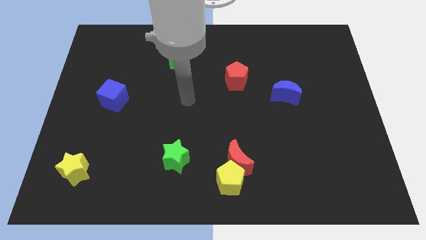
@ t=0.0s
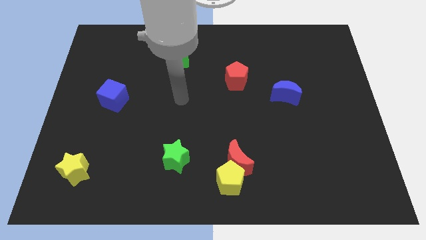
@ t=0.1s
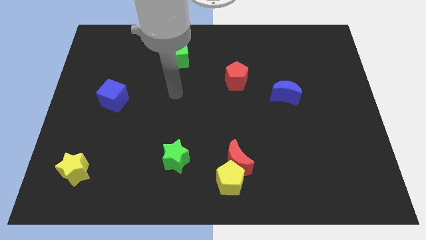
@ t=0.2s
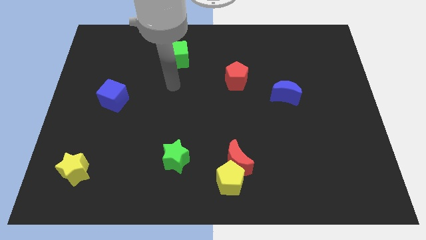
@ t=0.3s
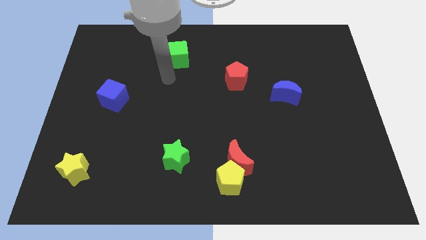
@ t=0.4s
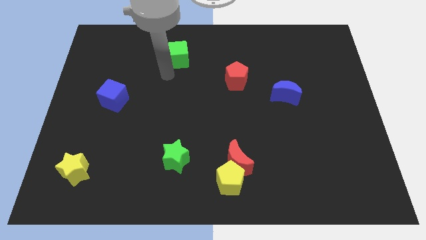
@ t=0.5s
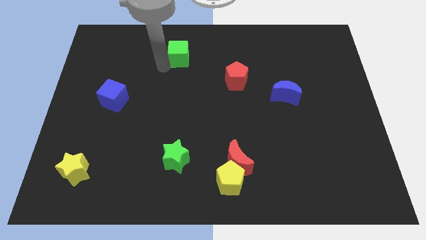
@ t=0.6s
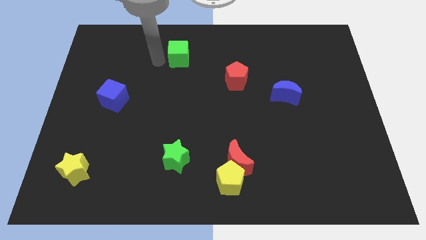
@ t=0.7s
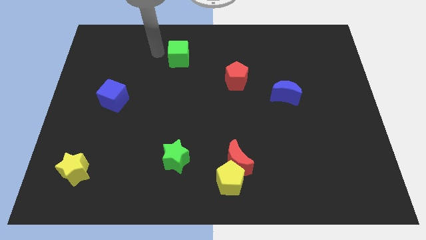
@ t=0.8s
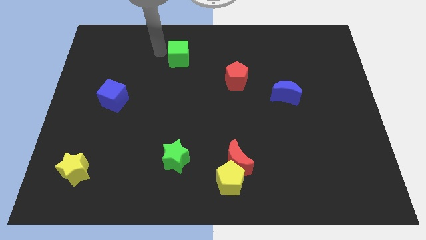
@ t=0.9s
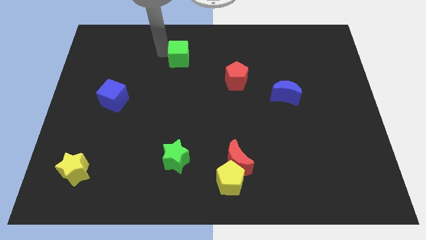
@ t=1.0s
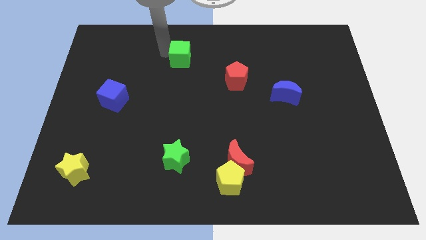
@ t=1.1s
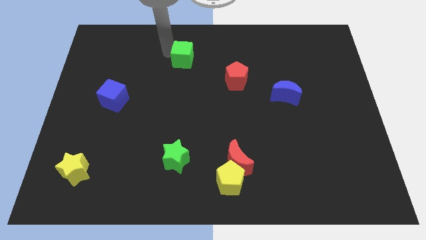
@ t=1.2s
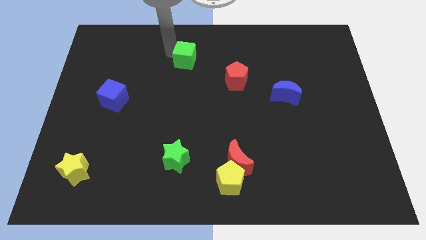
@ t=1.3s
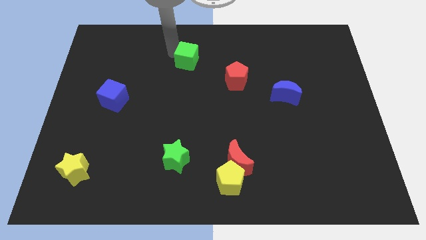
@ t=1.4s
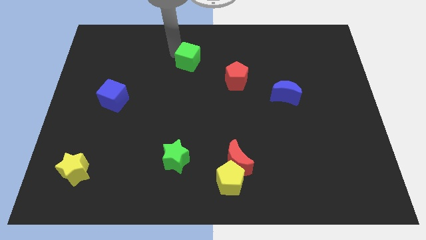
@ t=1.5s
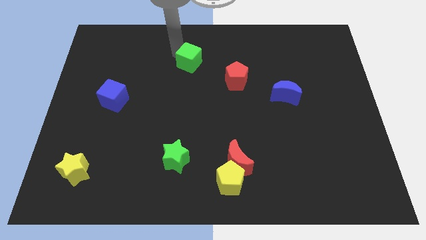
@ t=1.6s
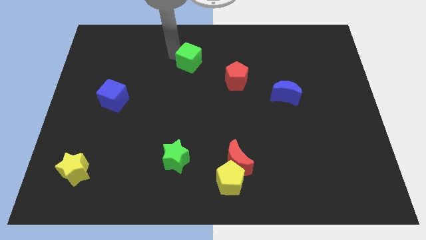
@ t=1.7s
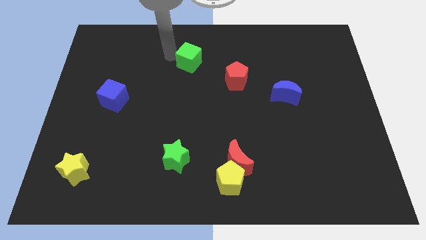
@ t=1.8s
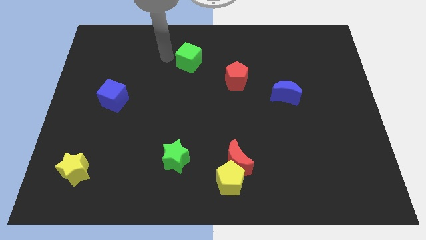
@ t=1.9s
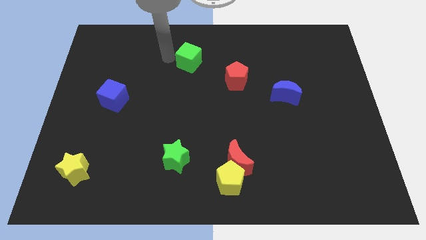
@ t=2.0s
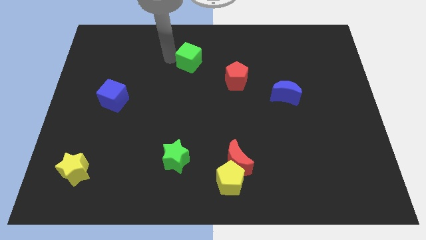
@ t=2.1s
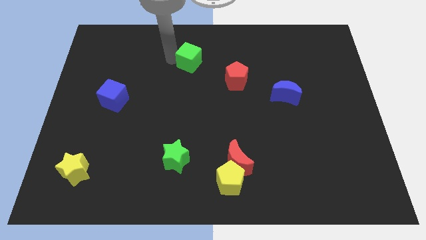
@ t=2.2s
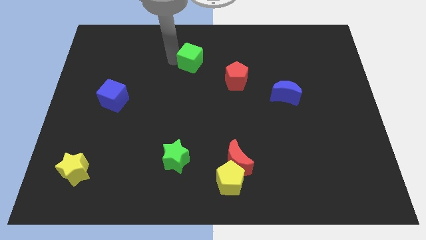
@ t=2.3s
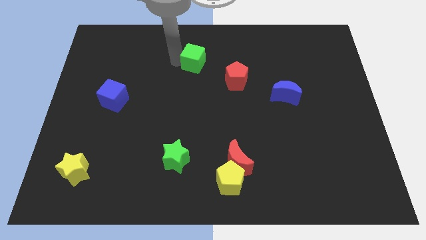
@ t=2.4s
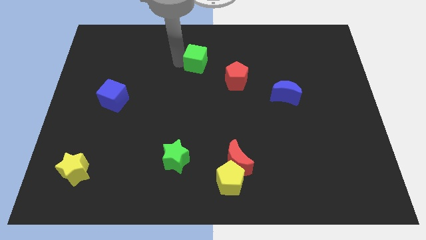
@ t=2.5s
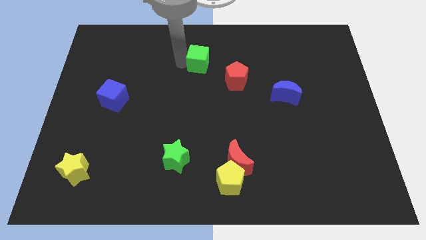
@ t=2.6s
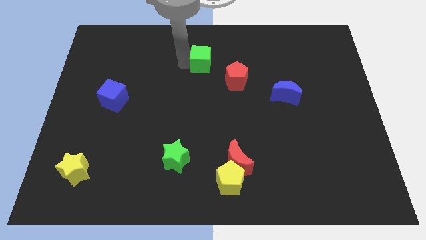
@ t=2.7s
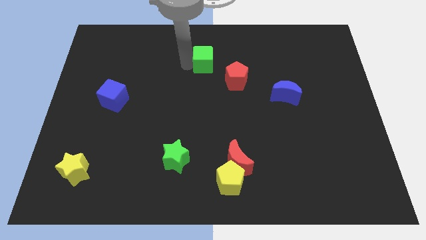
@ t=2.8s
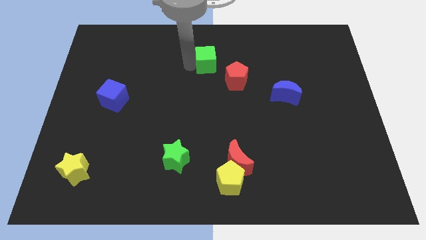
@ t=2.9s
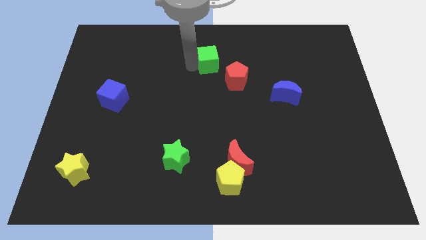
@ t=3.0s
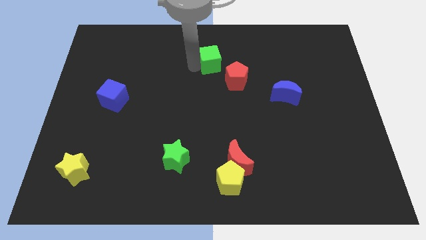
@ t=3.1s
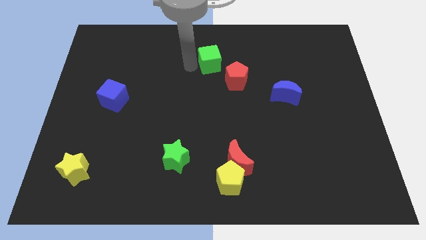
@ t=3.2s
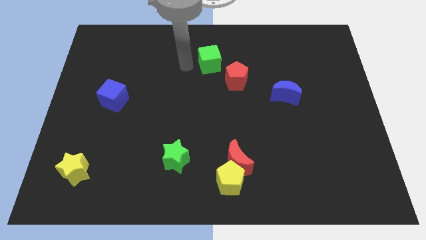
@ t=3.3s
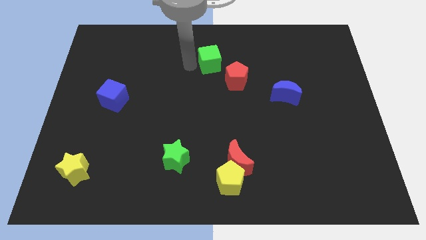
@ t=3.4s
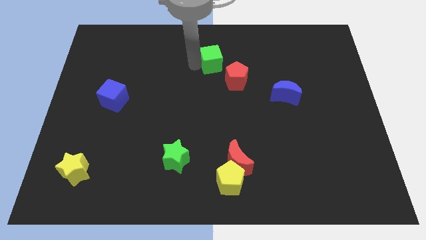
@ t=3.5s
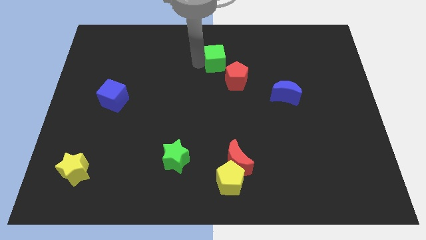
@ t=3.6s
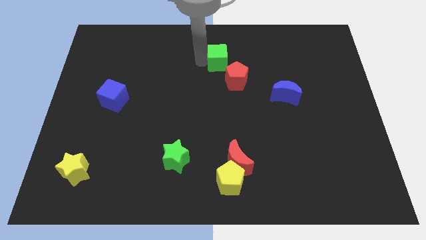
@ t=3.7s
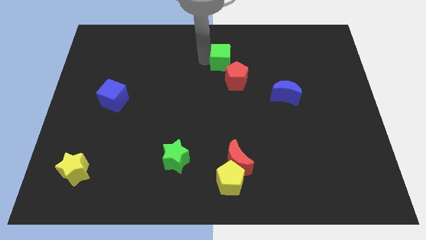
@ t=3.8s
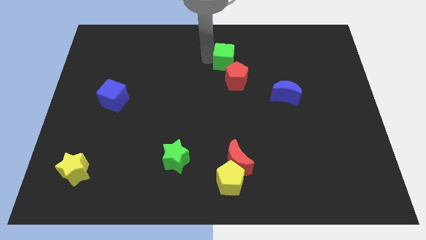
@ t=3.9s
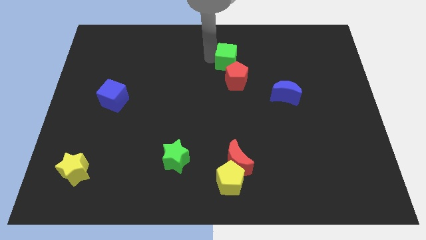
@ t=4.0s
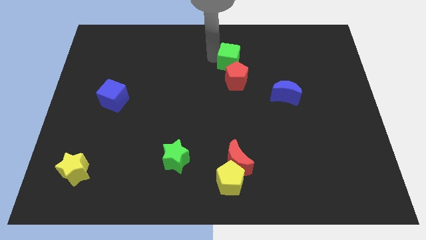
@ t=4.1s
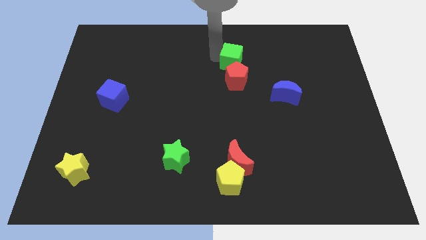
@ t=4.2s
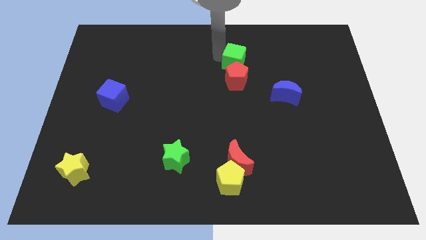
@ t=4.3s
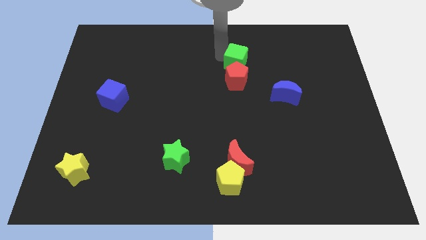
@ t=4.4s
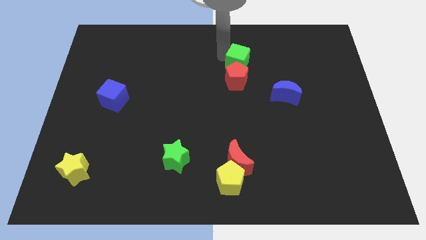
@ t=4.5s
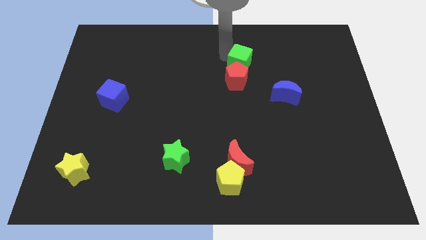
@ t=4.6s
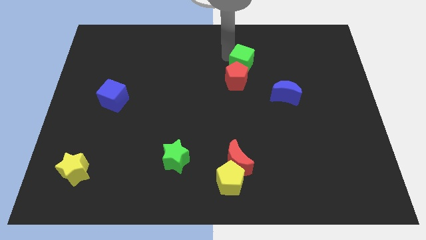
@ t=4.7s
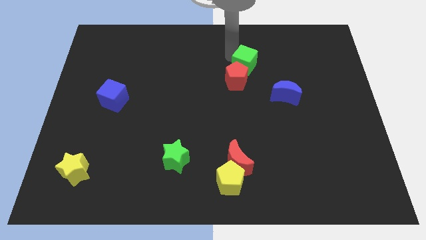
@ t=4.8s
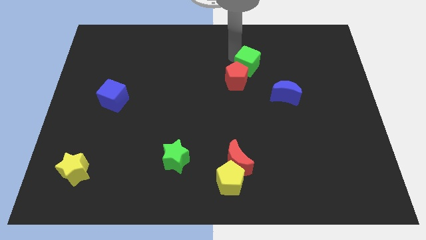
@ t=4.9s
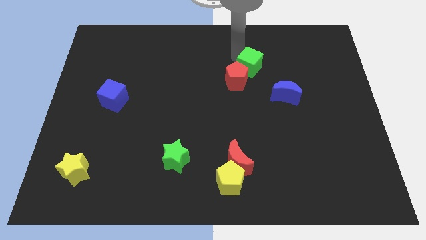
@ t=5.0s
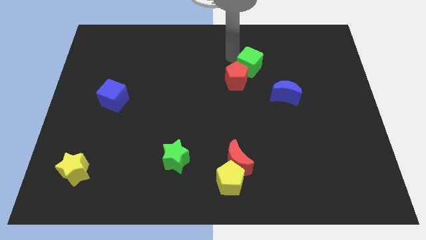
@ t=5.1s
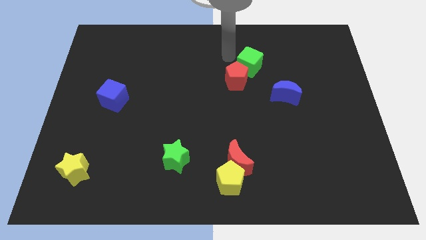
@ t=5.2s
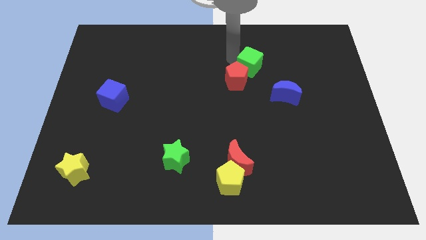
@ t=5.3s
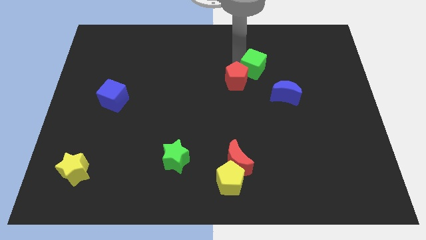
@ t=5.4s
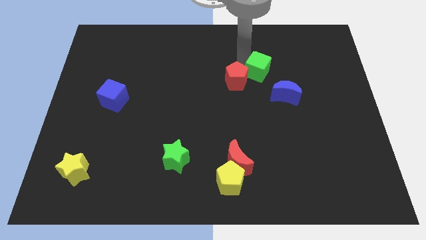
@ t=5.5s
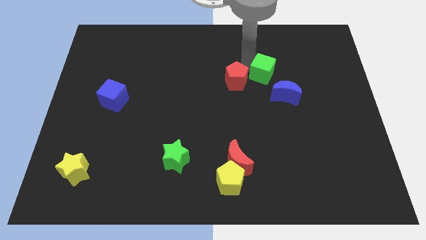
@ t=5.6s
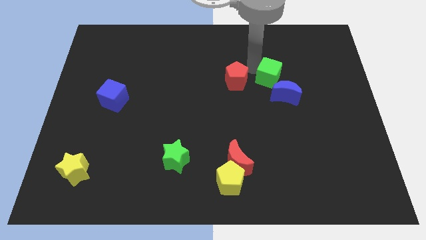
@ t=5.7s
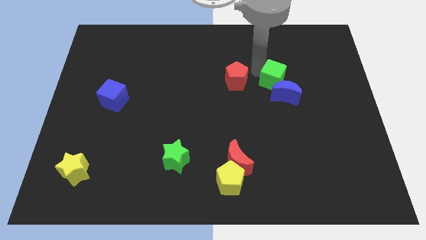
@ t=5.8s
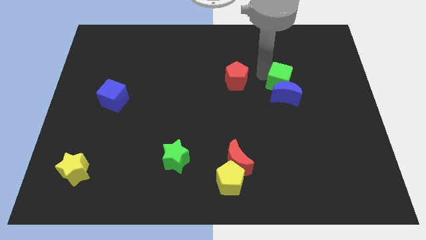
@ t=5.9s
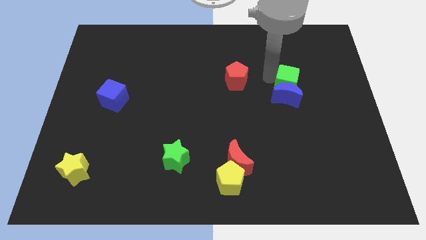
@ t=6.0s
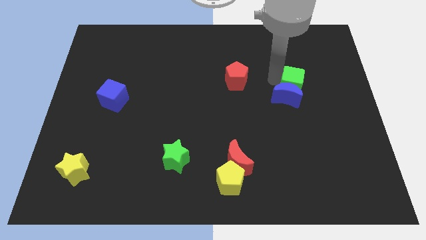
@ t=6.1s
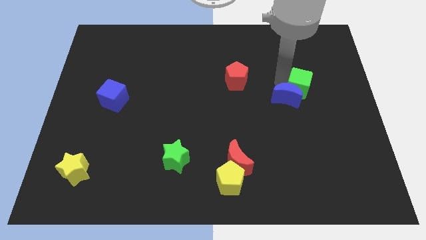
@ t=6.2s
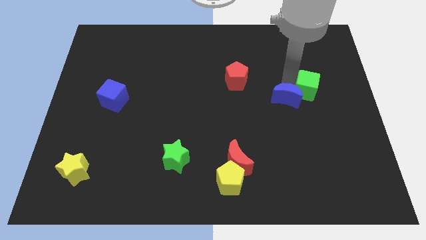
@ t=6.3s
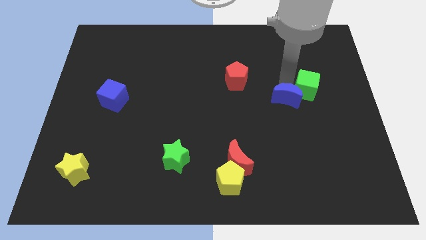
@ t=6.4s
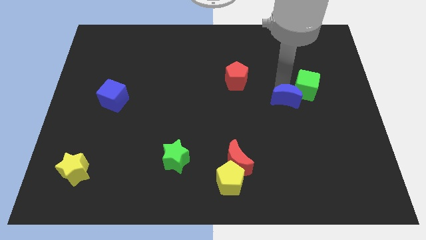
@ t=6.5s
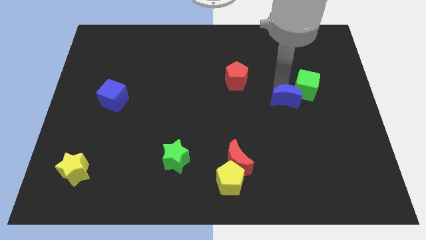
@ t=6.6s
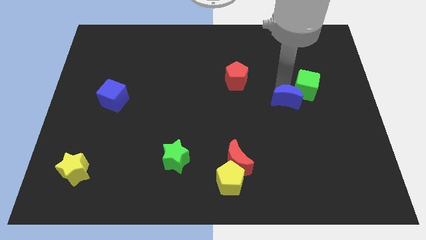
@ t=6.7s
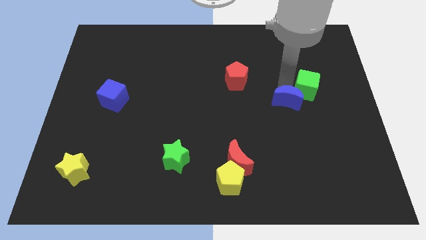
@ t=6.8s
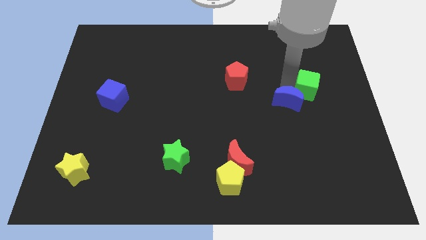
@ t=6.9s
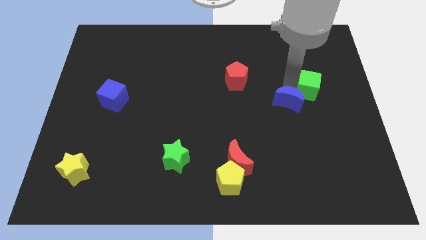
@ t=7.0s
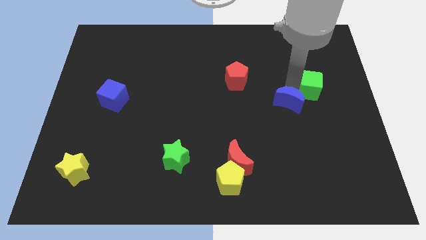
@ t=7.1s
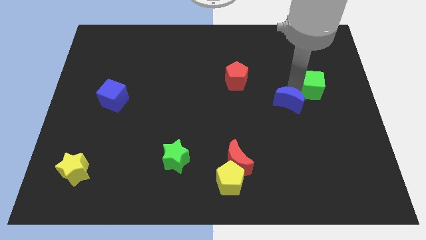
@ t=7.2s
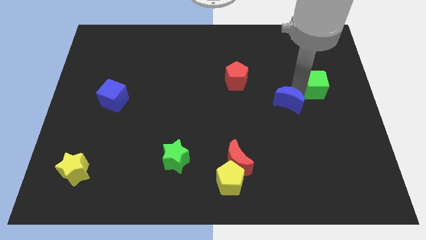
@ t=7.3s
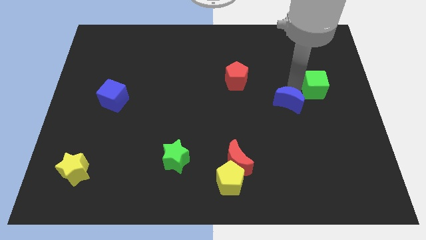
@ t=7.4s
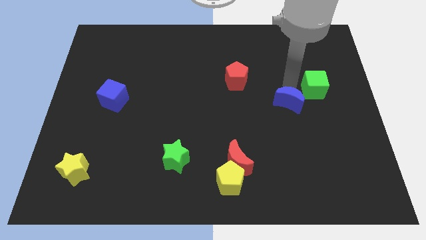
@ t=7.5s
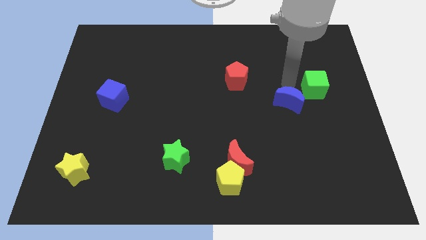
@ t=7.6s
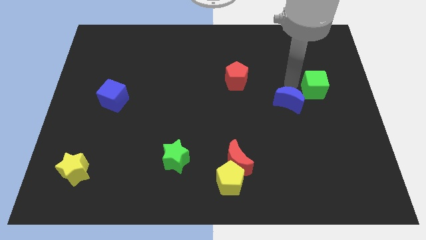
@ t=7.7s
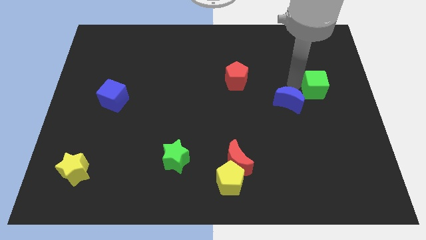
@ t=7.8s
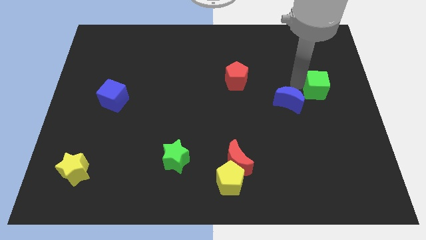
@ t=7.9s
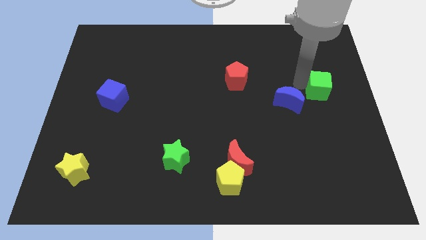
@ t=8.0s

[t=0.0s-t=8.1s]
slide the green cube to the center right
